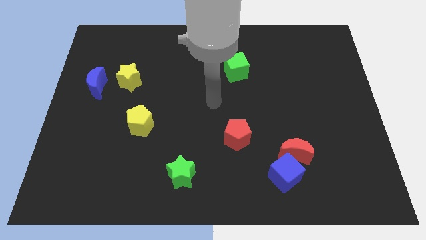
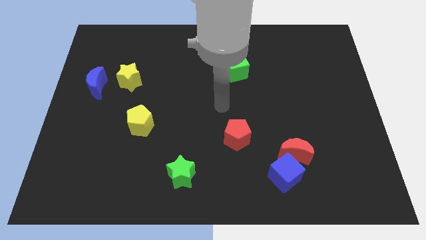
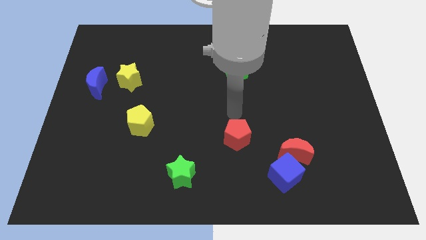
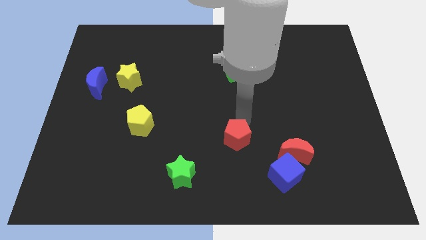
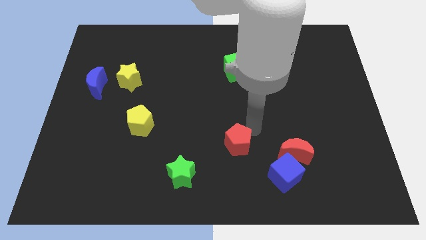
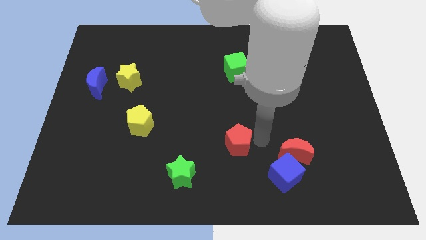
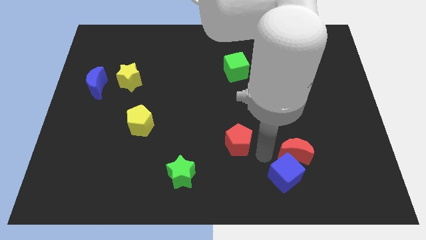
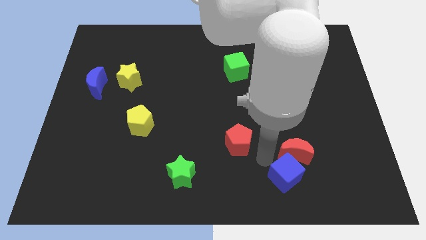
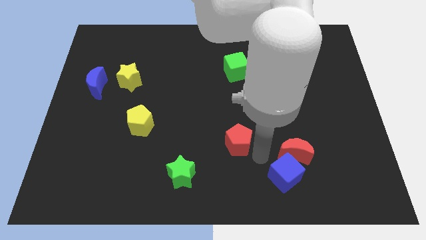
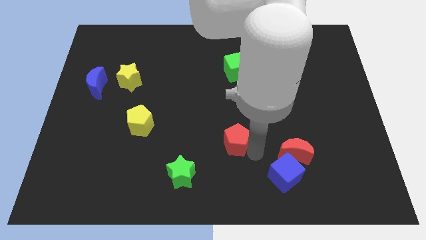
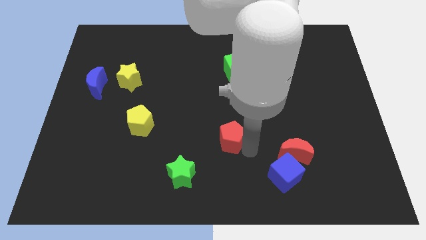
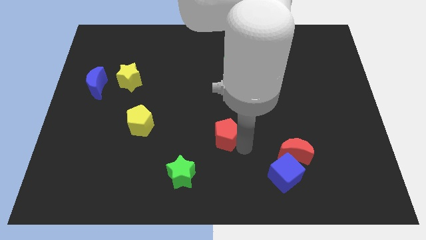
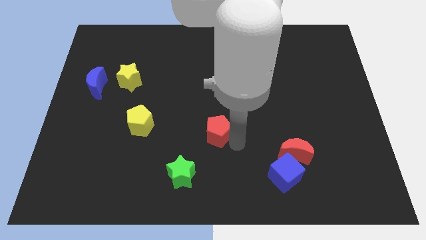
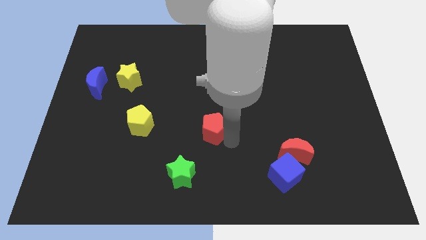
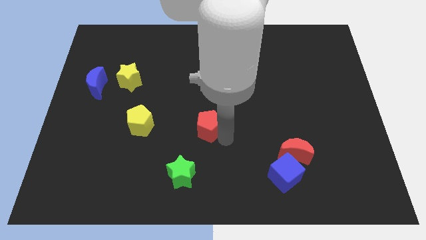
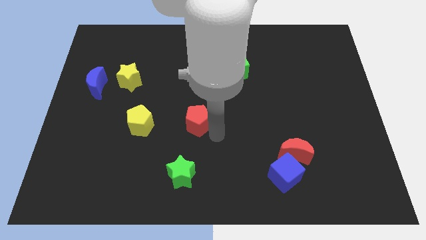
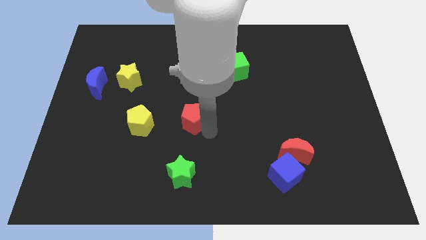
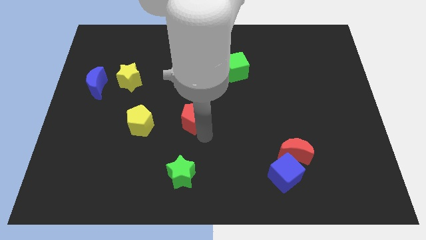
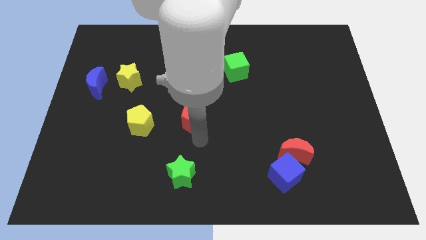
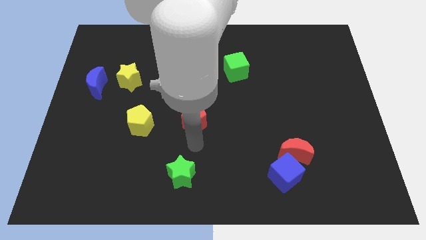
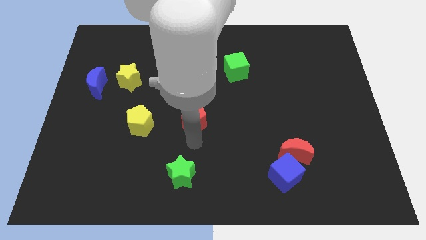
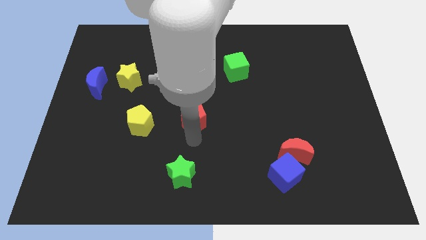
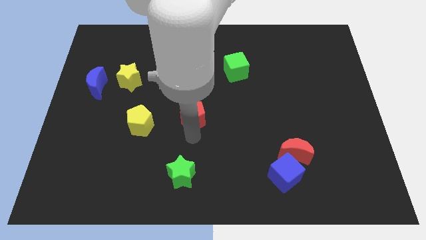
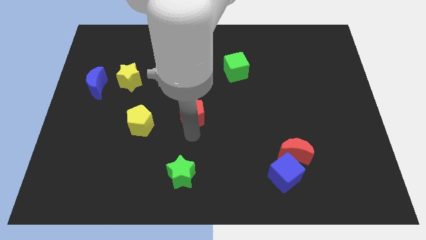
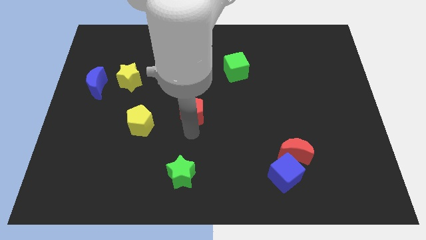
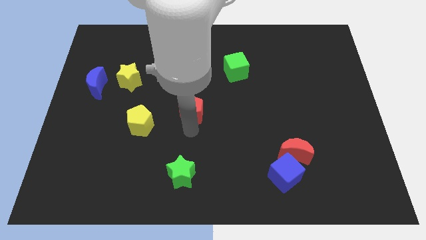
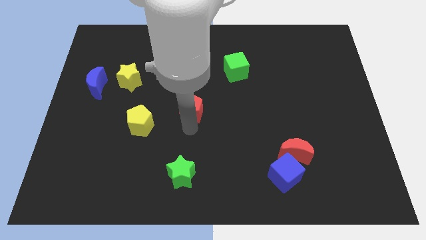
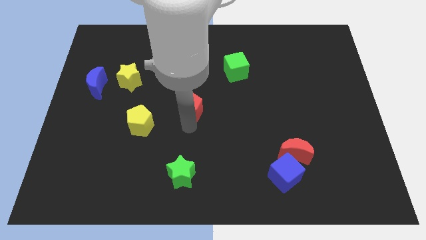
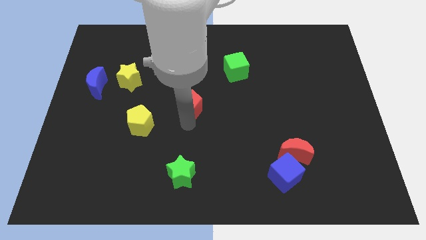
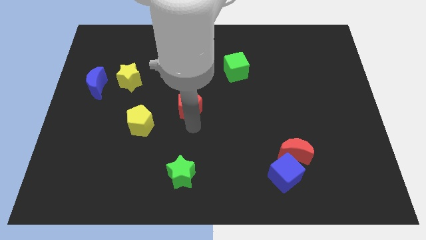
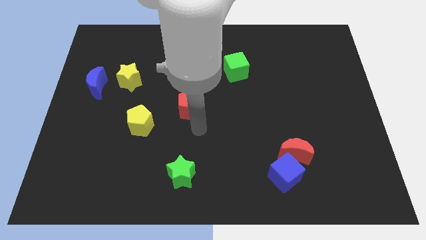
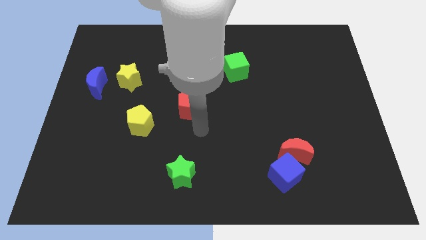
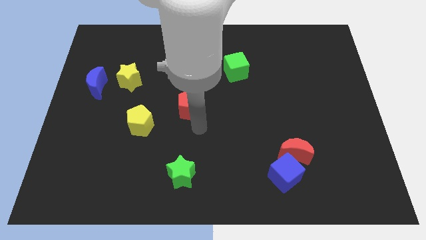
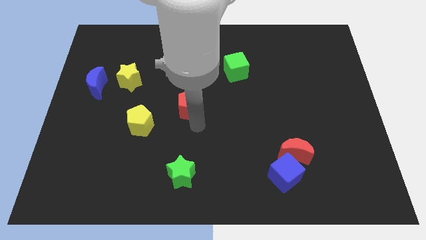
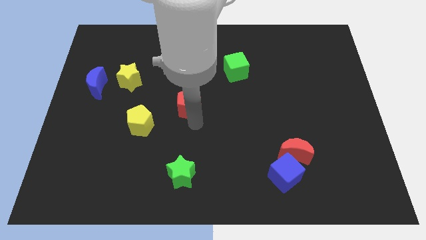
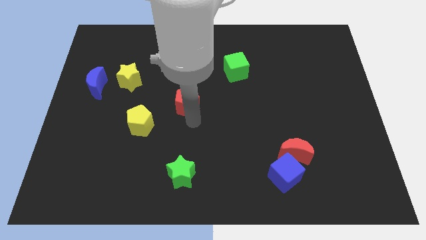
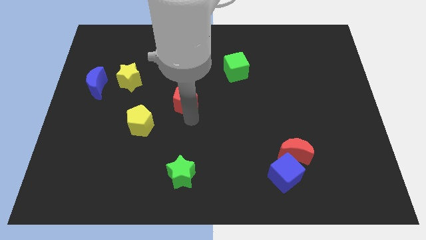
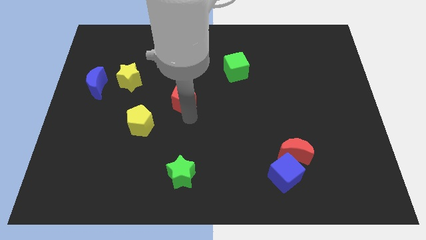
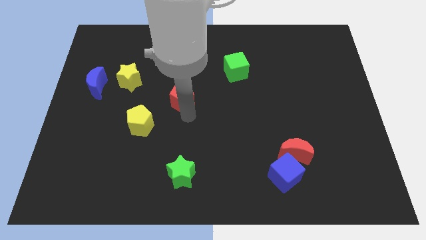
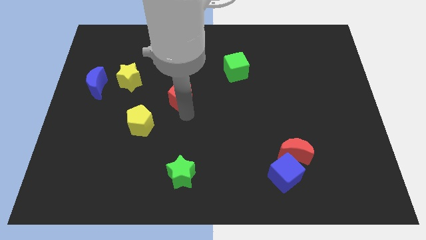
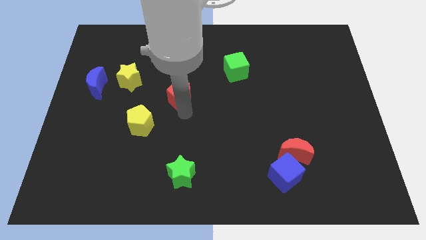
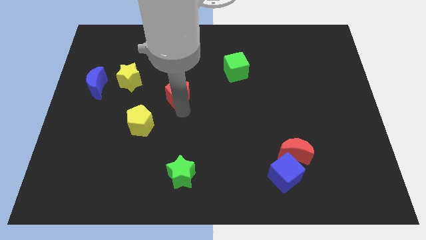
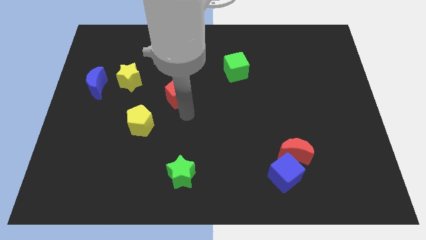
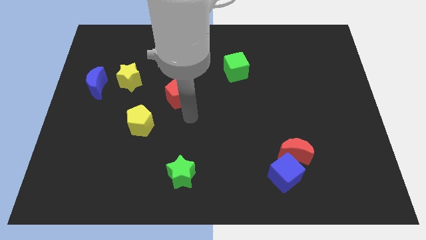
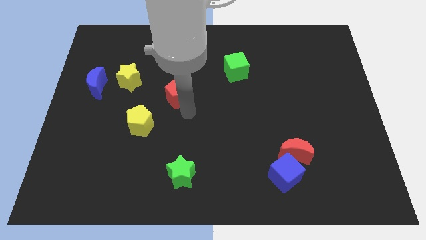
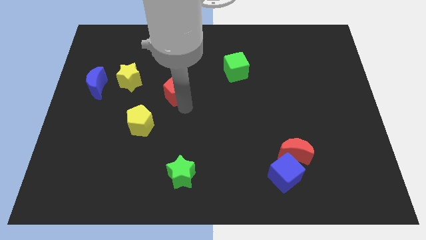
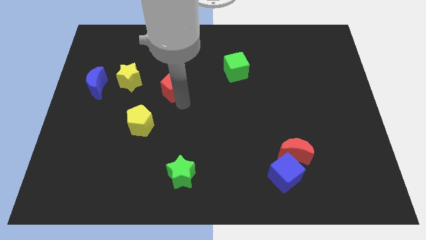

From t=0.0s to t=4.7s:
move the red pentagon diagonally up and to the left

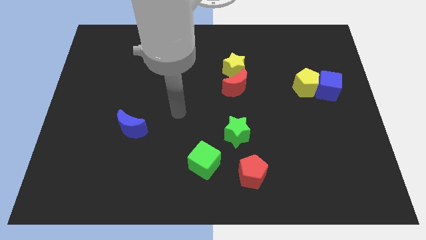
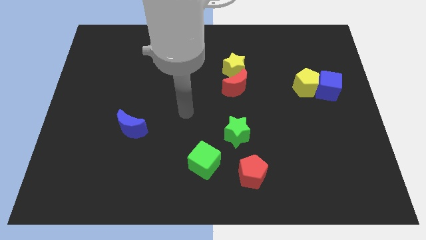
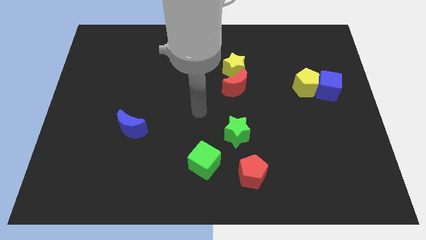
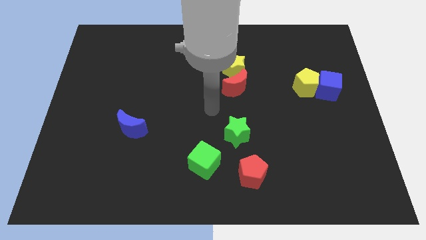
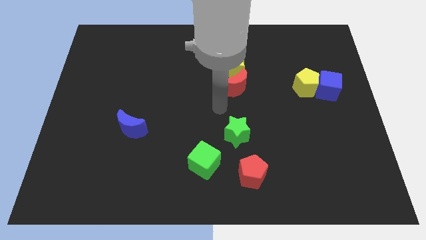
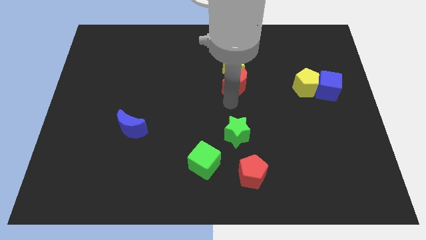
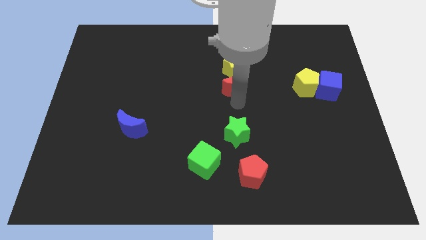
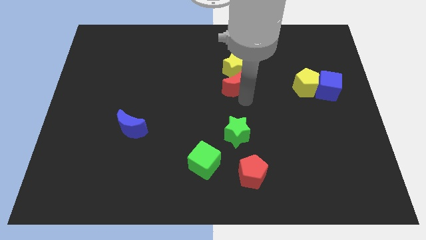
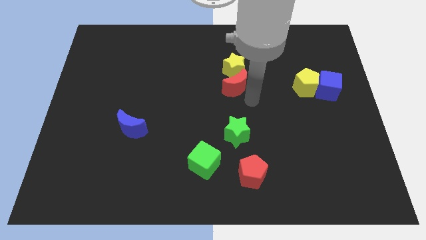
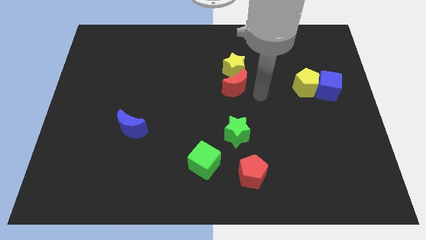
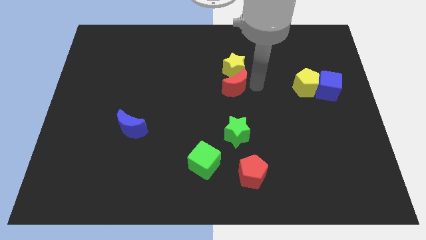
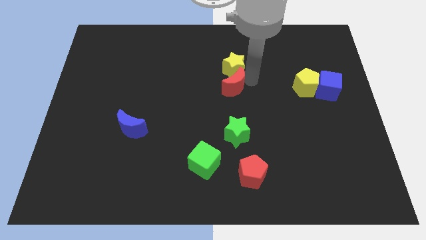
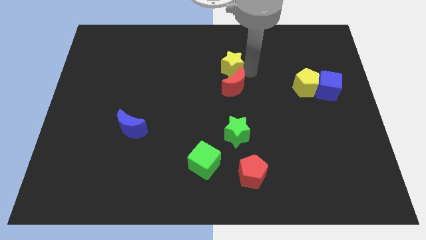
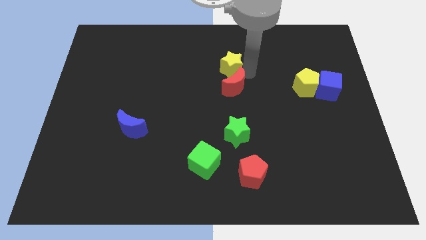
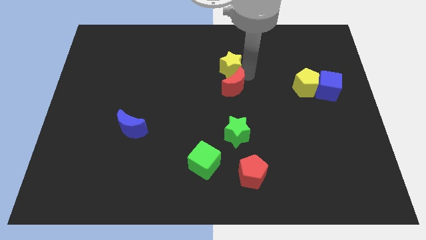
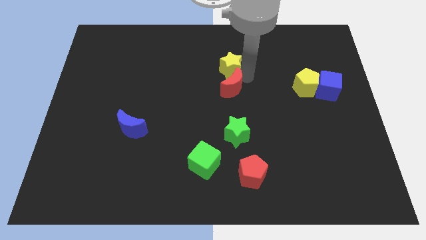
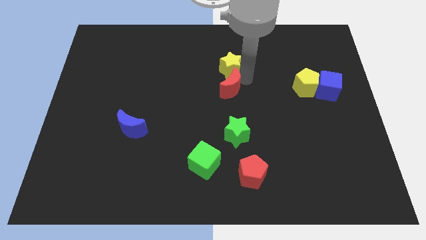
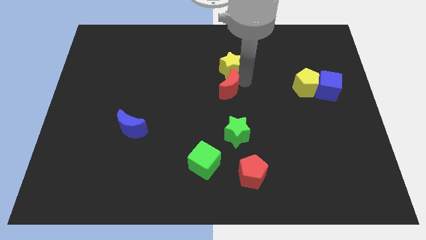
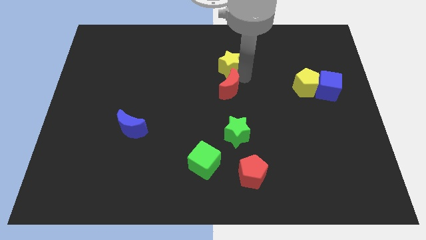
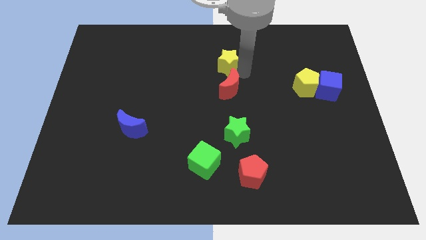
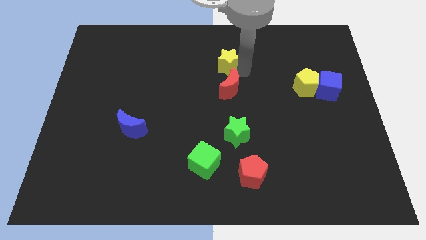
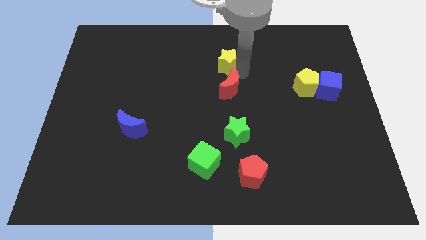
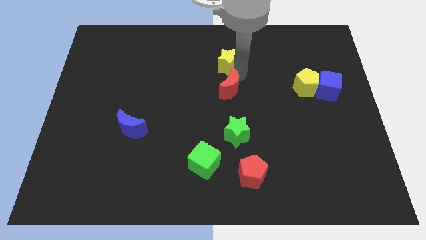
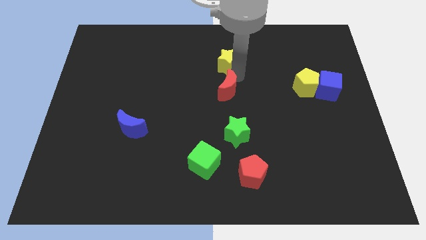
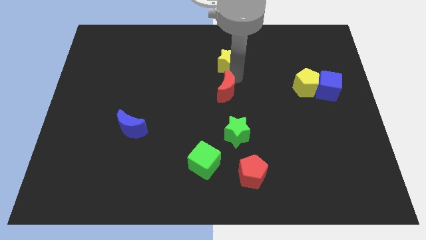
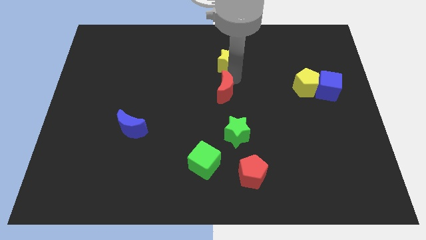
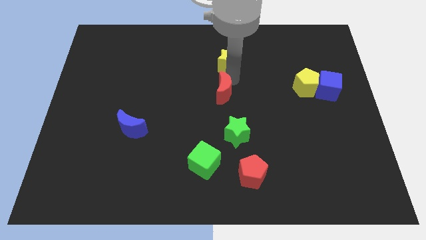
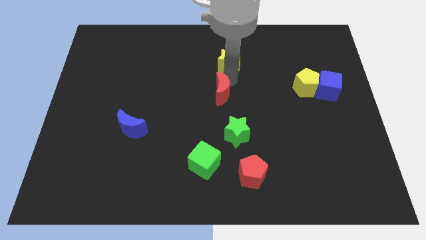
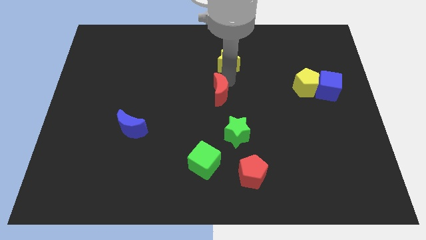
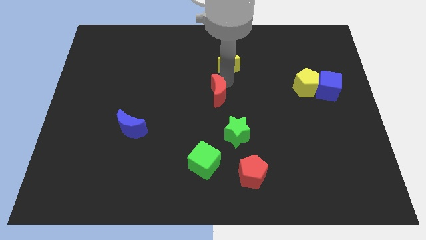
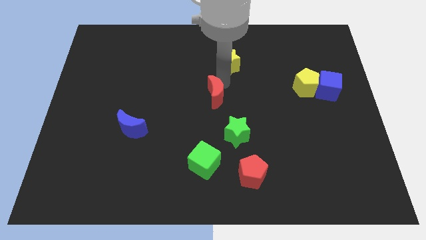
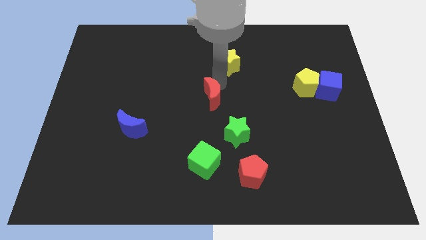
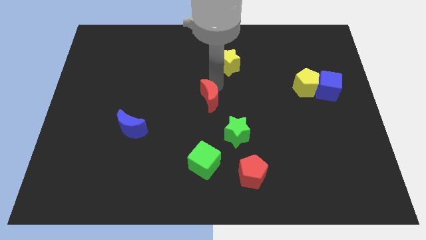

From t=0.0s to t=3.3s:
slide the red moon a little down and then left
